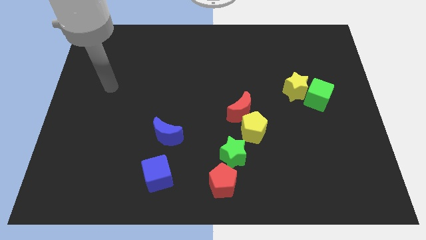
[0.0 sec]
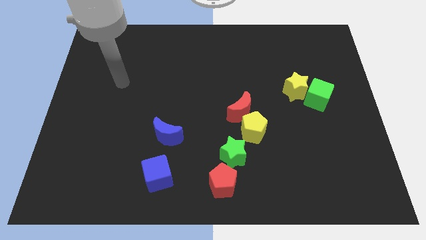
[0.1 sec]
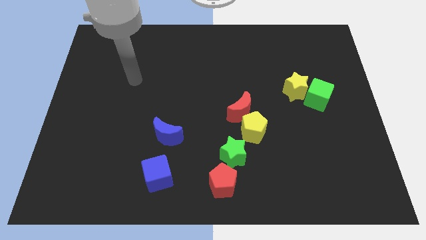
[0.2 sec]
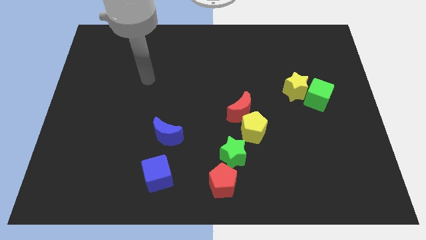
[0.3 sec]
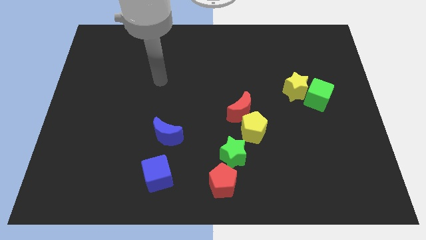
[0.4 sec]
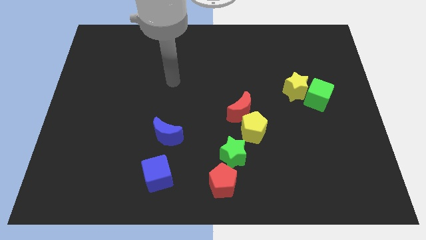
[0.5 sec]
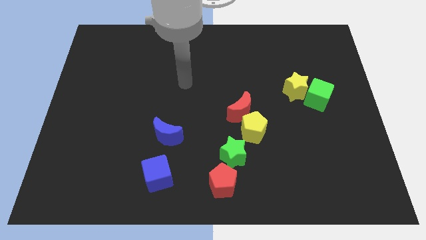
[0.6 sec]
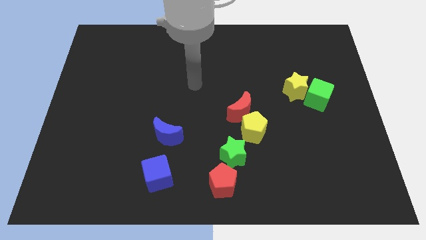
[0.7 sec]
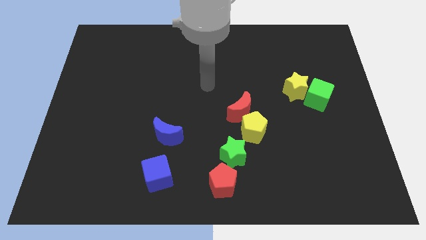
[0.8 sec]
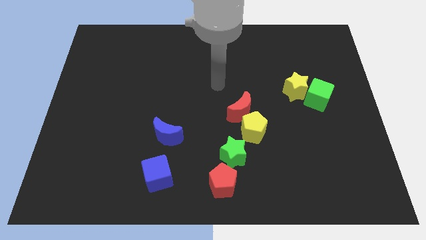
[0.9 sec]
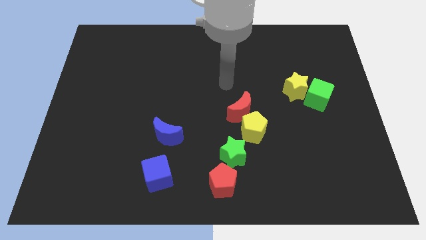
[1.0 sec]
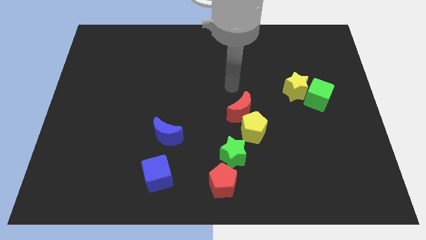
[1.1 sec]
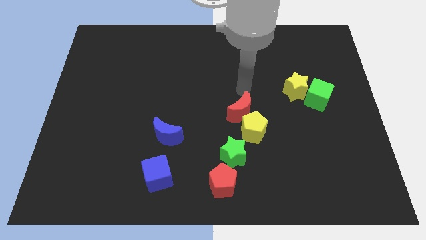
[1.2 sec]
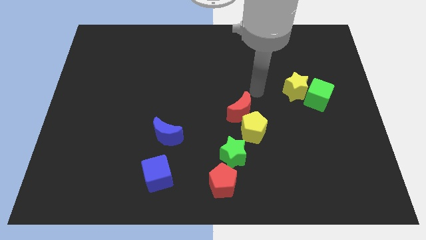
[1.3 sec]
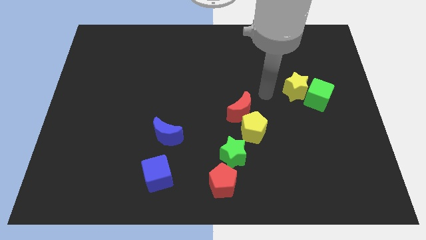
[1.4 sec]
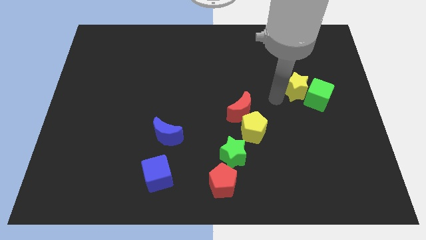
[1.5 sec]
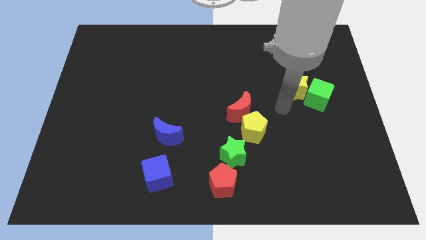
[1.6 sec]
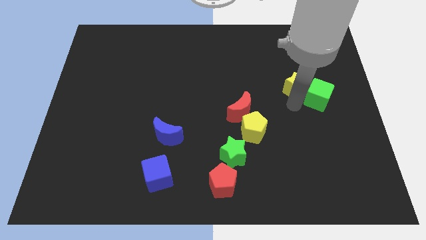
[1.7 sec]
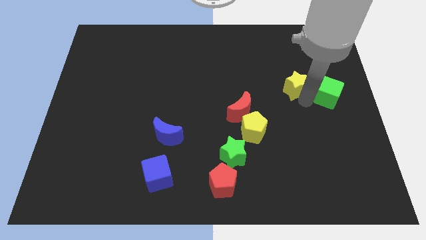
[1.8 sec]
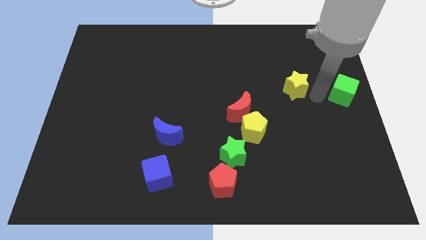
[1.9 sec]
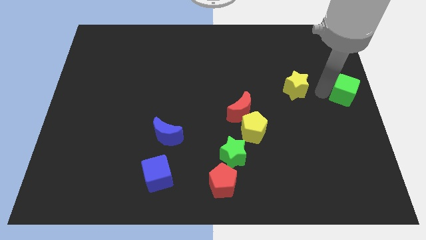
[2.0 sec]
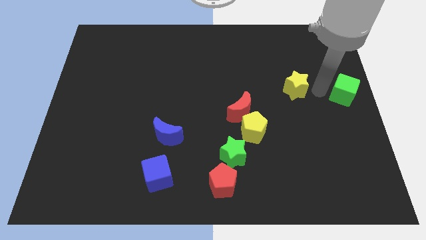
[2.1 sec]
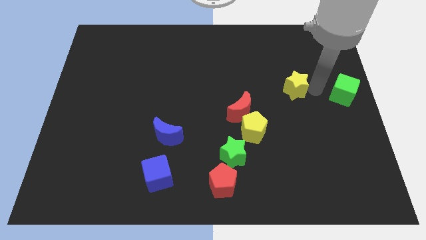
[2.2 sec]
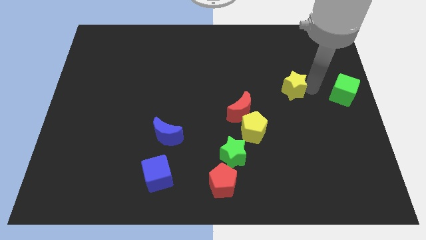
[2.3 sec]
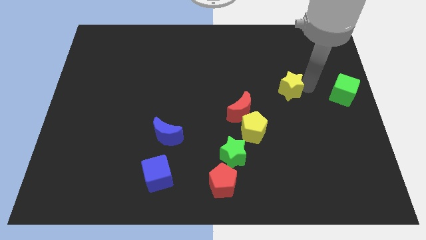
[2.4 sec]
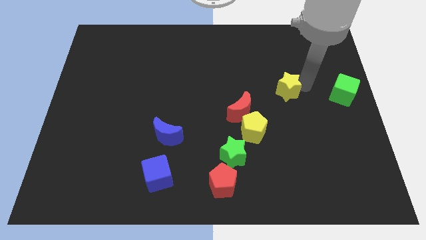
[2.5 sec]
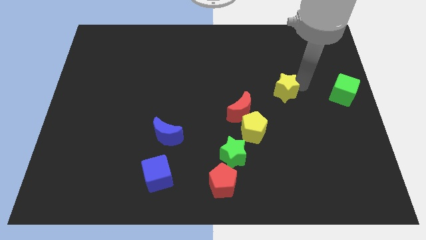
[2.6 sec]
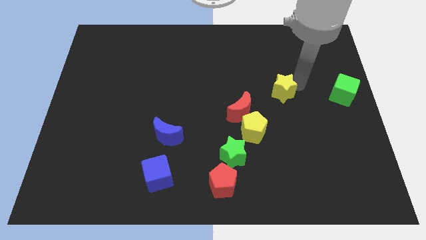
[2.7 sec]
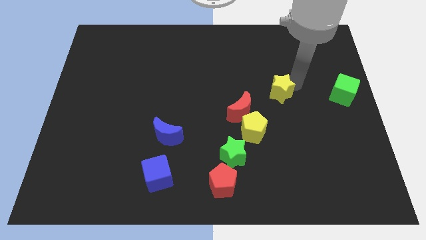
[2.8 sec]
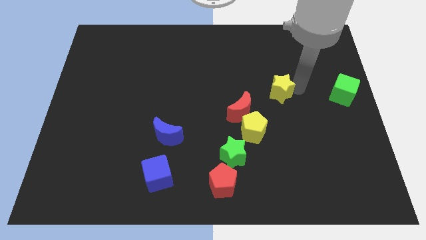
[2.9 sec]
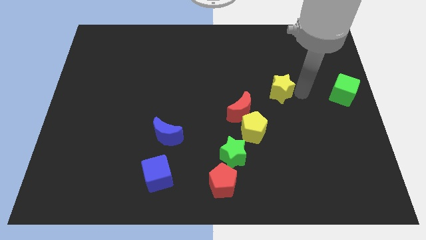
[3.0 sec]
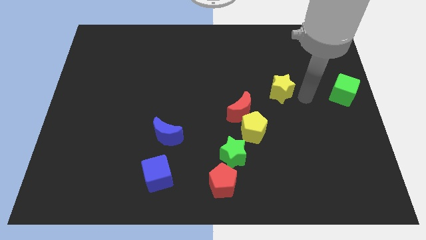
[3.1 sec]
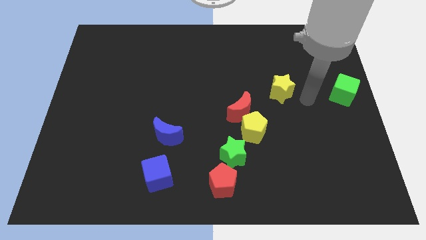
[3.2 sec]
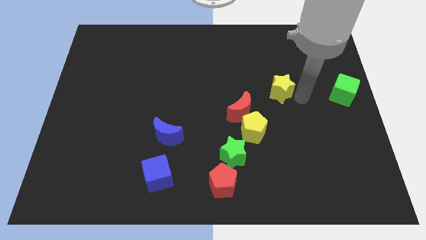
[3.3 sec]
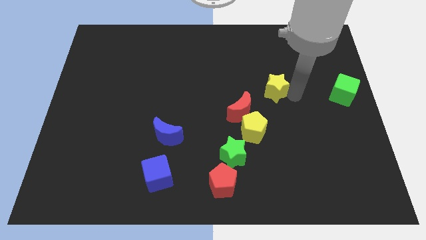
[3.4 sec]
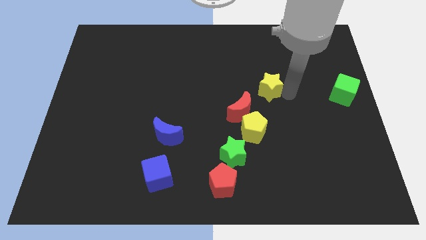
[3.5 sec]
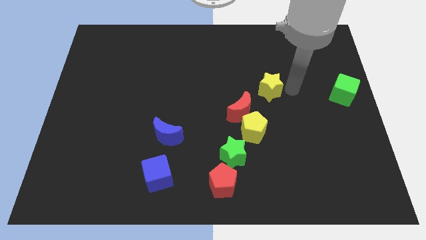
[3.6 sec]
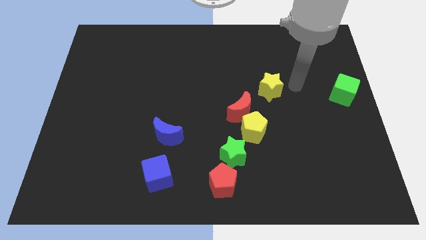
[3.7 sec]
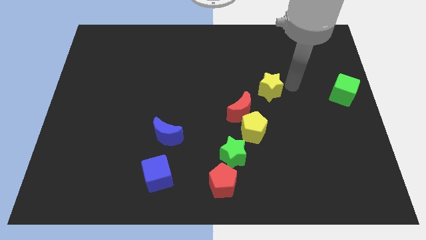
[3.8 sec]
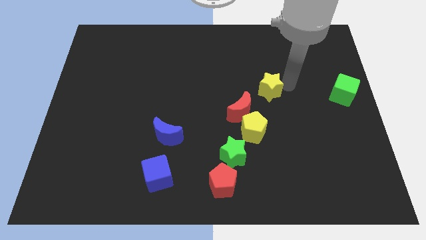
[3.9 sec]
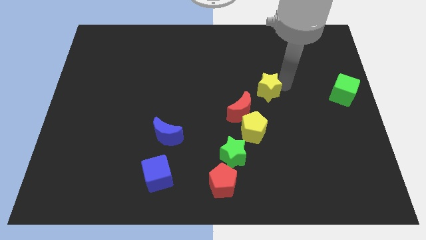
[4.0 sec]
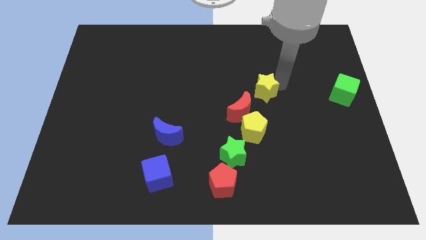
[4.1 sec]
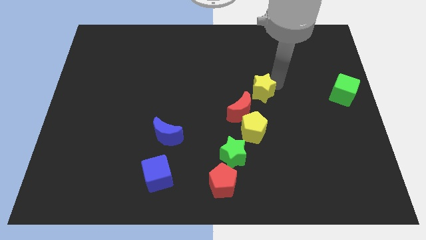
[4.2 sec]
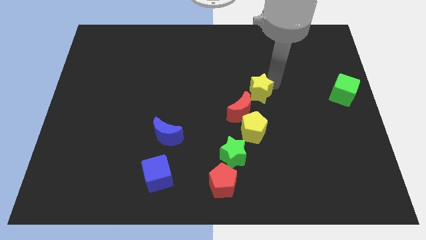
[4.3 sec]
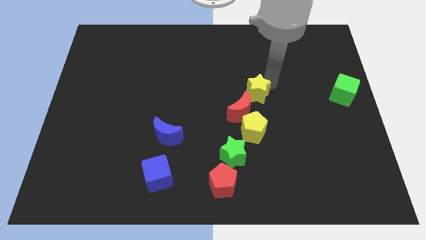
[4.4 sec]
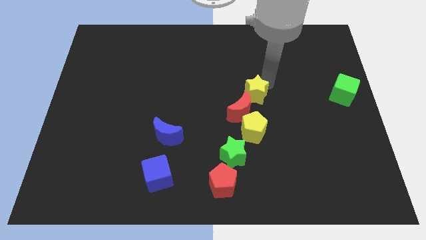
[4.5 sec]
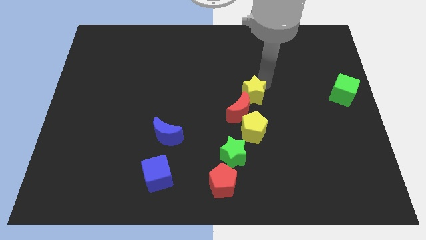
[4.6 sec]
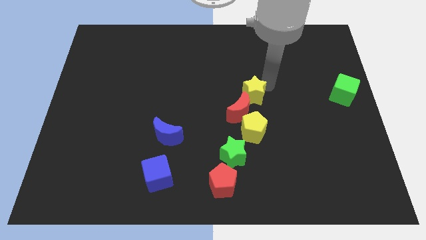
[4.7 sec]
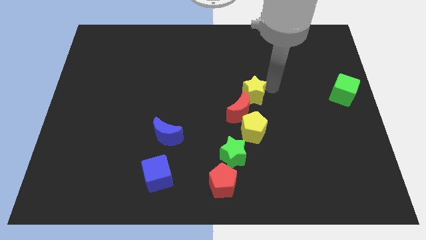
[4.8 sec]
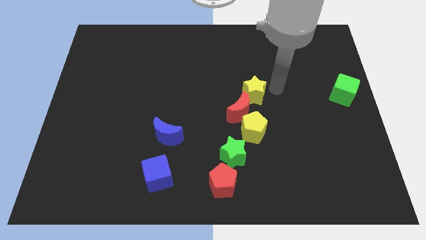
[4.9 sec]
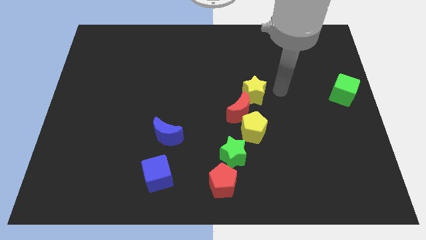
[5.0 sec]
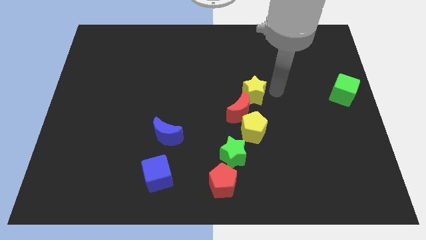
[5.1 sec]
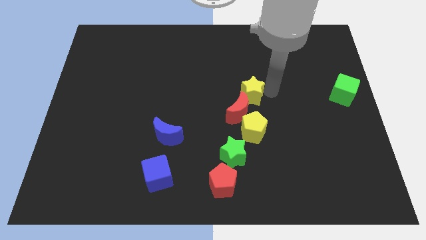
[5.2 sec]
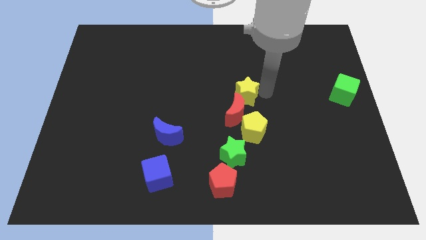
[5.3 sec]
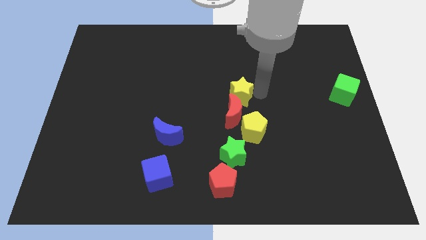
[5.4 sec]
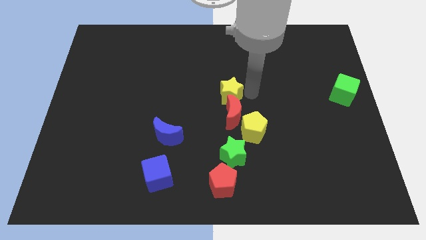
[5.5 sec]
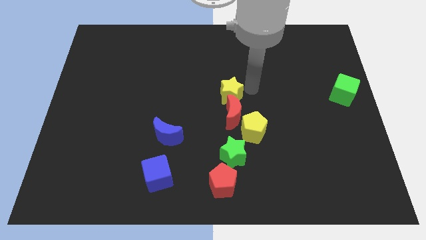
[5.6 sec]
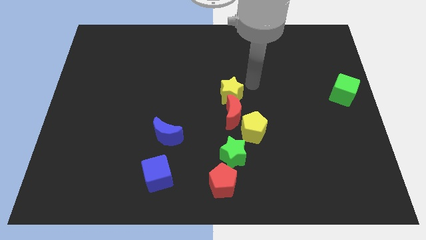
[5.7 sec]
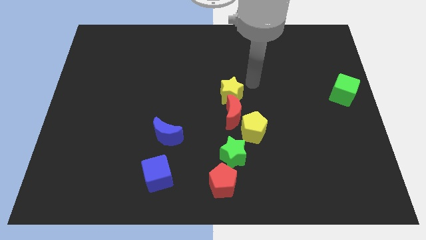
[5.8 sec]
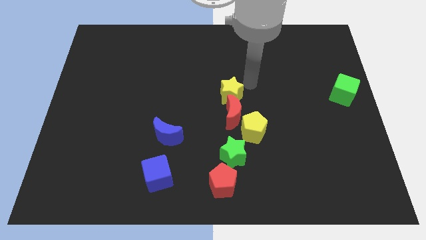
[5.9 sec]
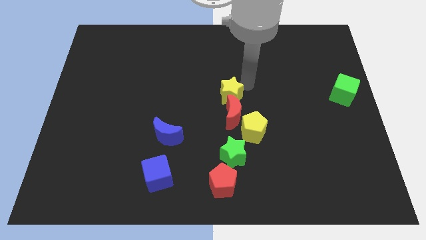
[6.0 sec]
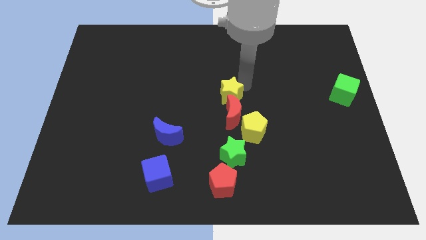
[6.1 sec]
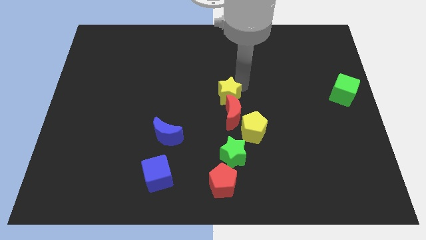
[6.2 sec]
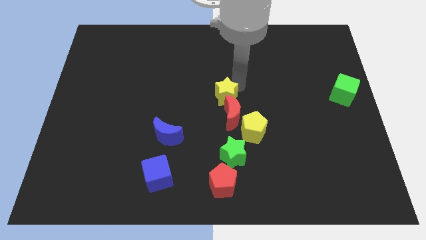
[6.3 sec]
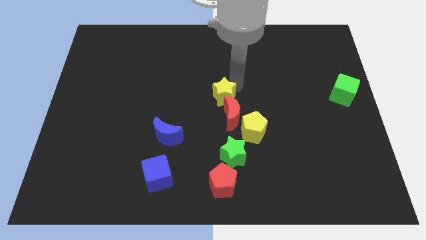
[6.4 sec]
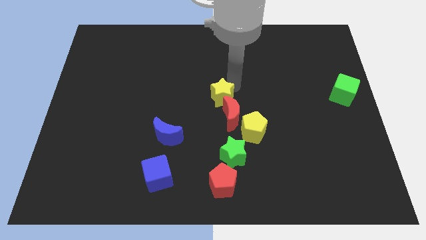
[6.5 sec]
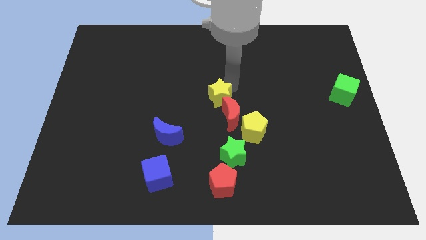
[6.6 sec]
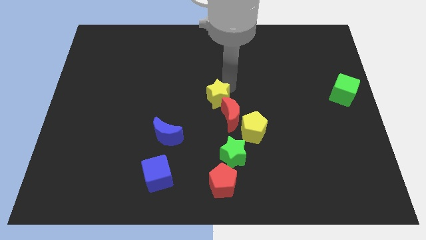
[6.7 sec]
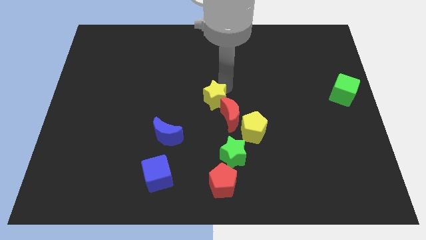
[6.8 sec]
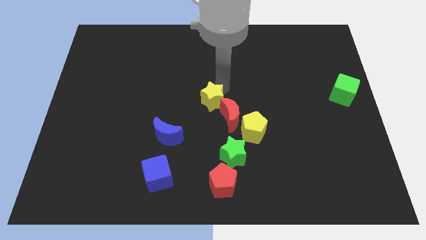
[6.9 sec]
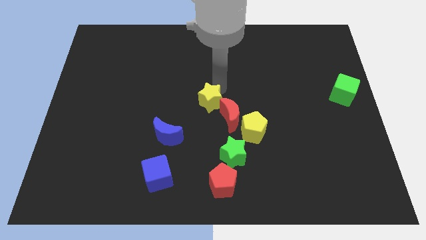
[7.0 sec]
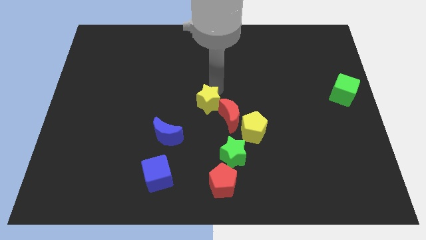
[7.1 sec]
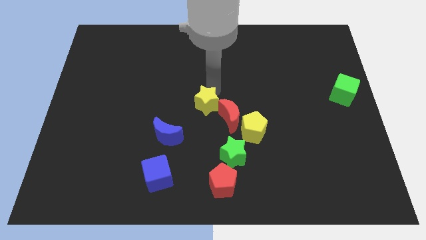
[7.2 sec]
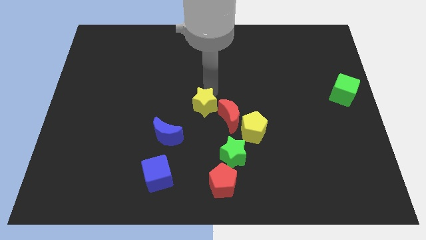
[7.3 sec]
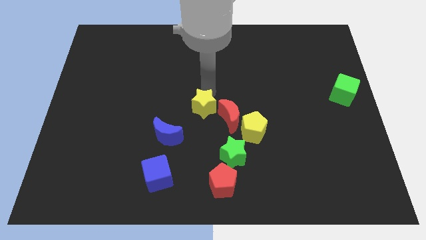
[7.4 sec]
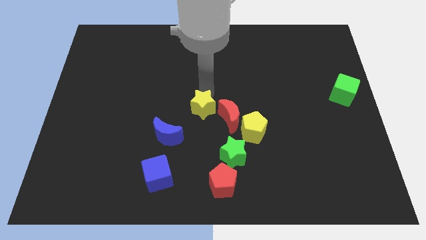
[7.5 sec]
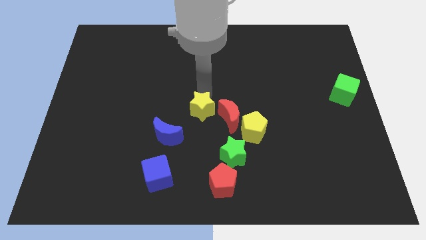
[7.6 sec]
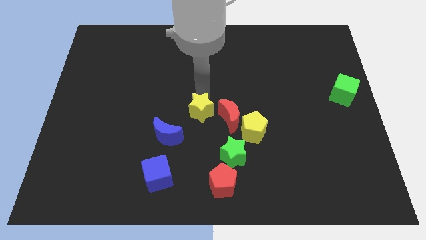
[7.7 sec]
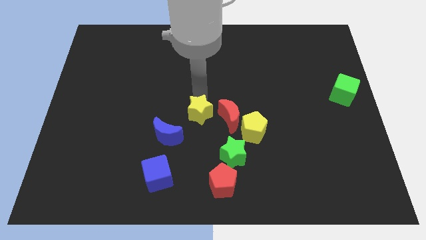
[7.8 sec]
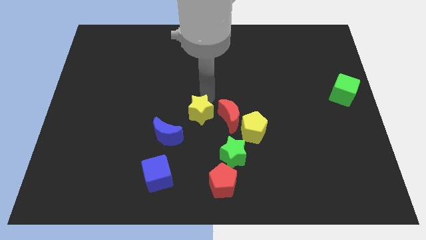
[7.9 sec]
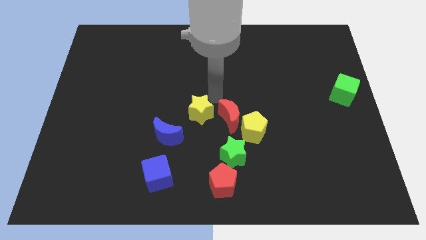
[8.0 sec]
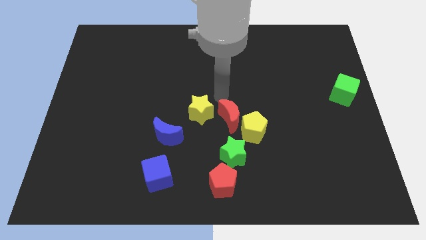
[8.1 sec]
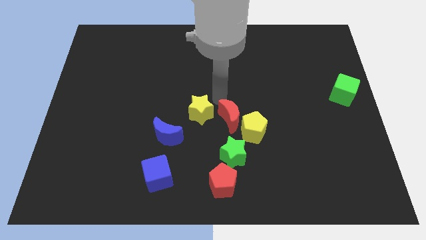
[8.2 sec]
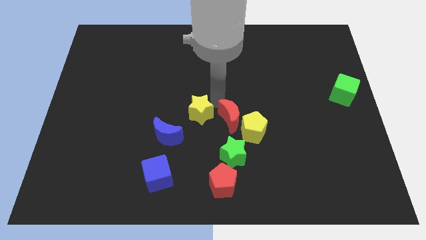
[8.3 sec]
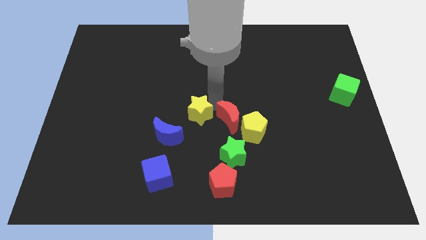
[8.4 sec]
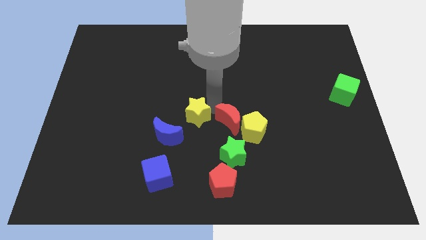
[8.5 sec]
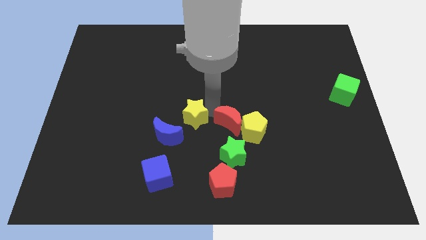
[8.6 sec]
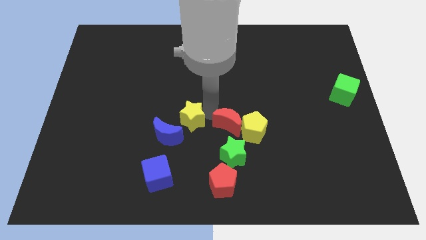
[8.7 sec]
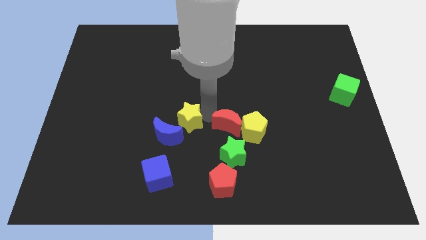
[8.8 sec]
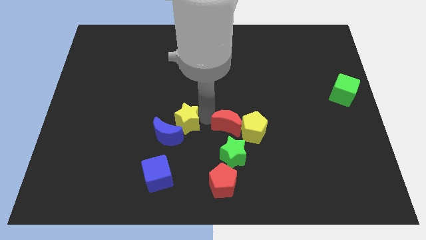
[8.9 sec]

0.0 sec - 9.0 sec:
slide the yellow star next to the blue moon
